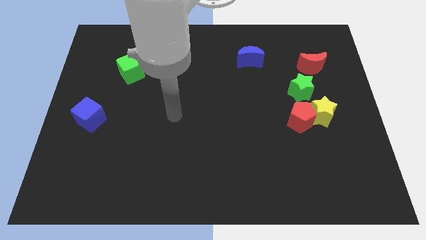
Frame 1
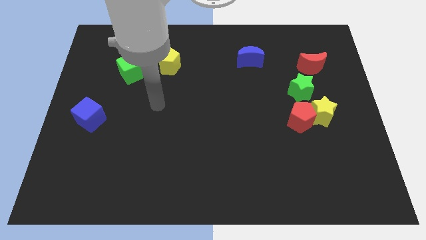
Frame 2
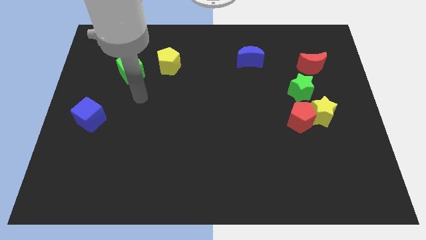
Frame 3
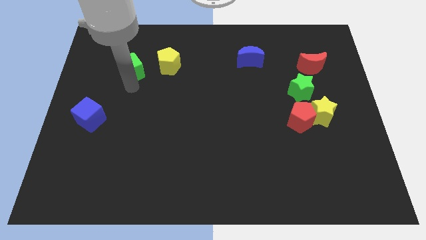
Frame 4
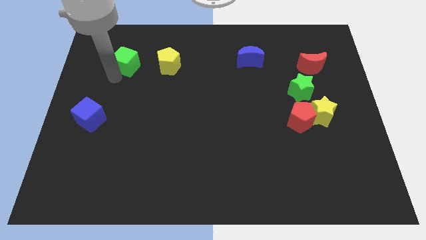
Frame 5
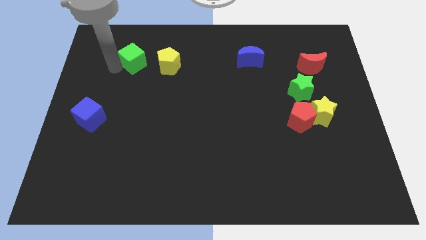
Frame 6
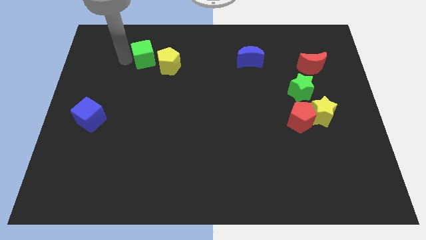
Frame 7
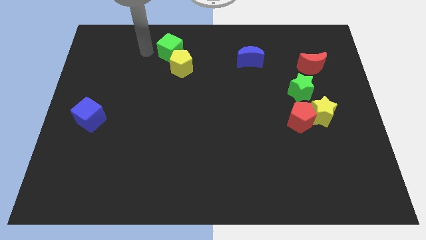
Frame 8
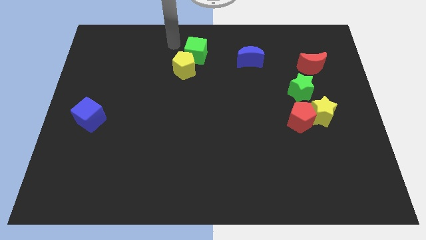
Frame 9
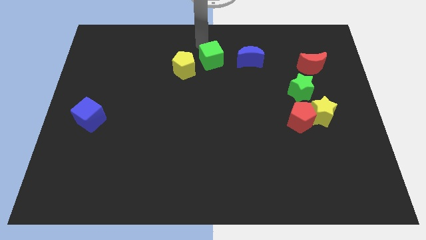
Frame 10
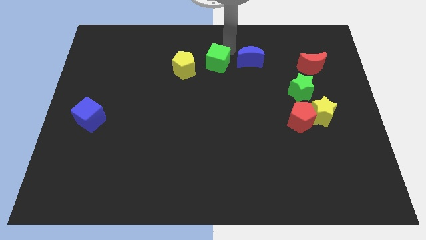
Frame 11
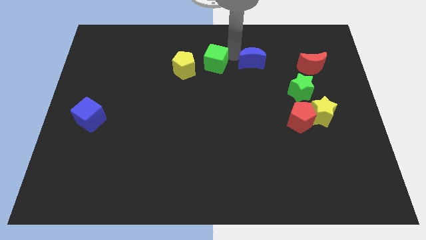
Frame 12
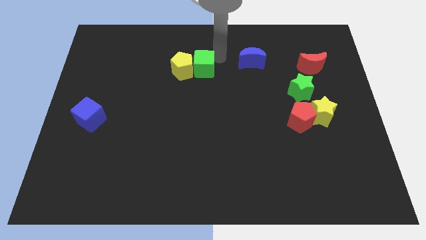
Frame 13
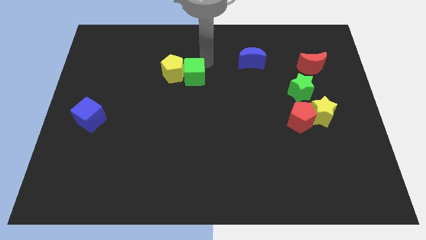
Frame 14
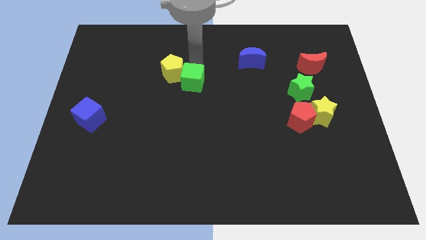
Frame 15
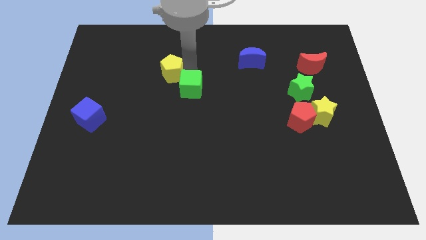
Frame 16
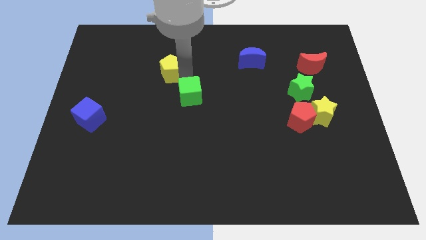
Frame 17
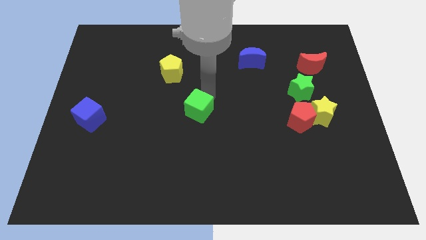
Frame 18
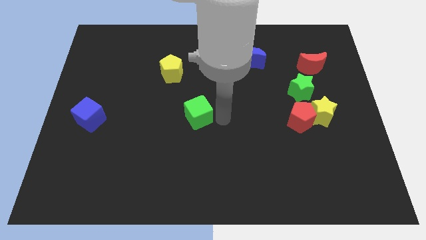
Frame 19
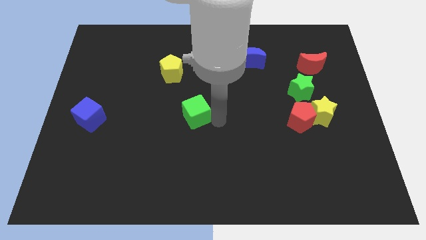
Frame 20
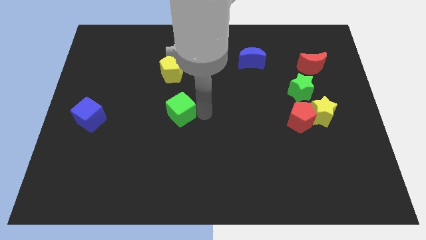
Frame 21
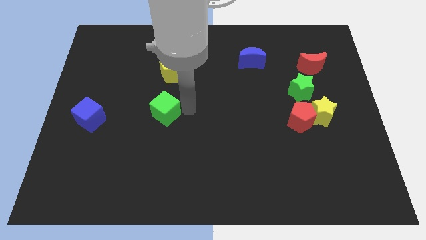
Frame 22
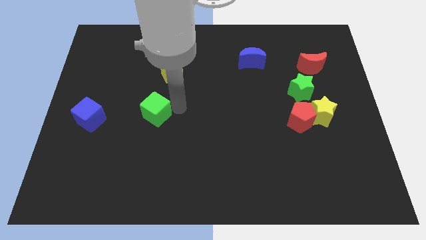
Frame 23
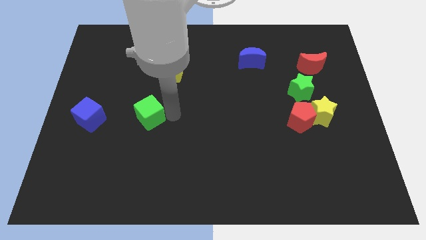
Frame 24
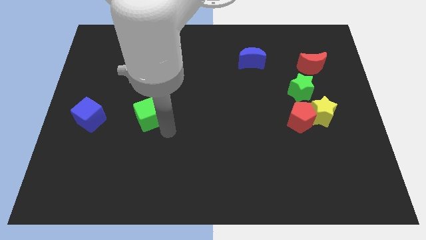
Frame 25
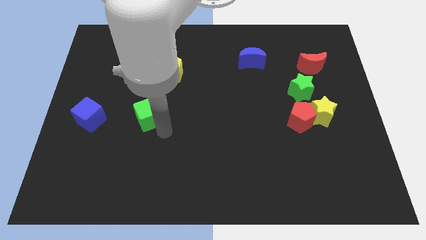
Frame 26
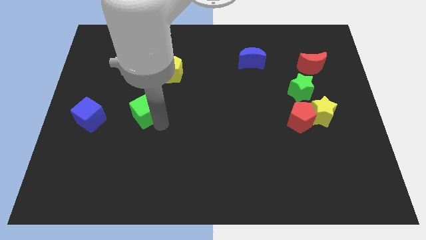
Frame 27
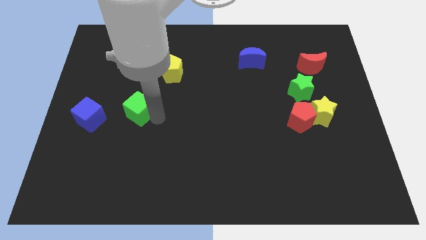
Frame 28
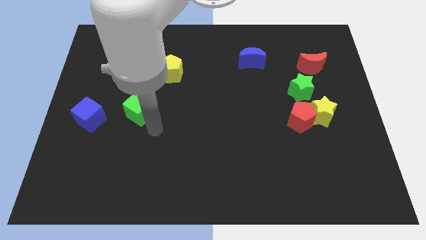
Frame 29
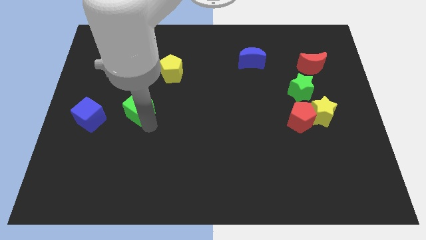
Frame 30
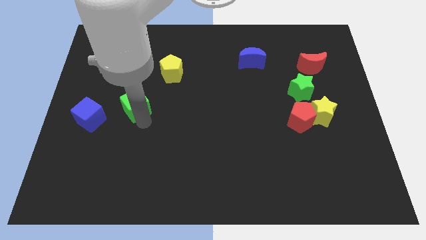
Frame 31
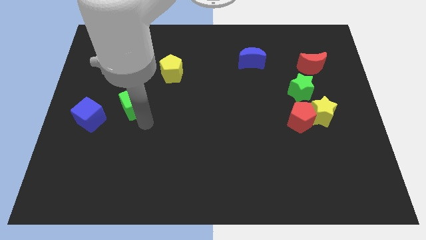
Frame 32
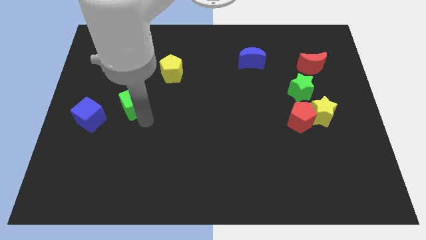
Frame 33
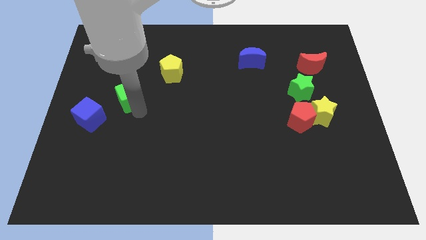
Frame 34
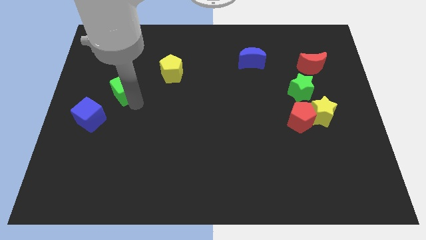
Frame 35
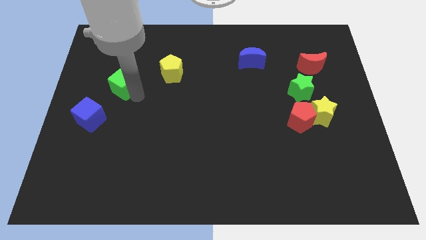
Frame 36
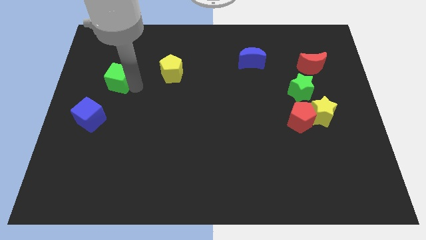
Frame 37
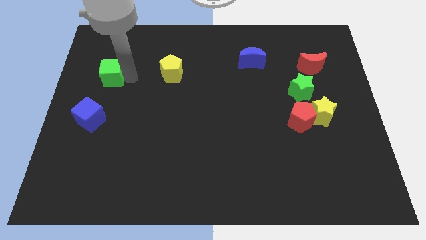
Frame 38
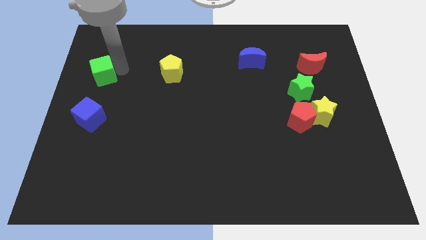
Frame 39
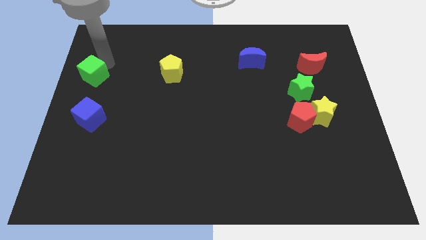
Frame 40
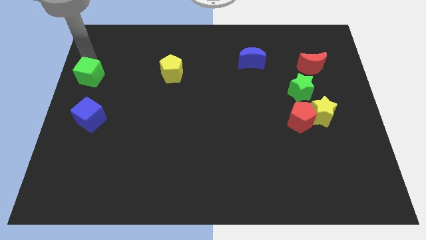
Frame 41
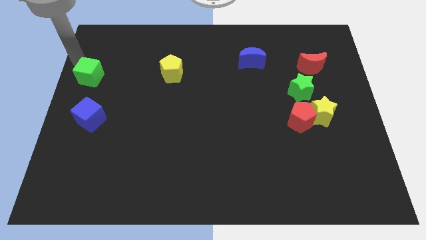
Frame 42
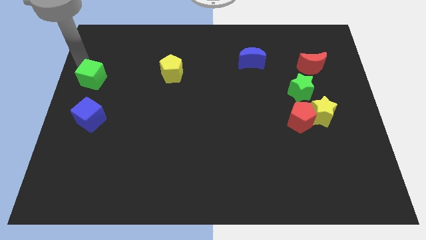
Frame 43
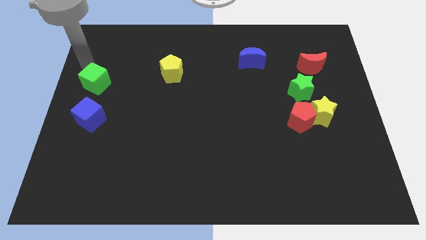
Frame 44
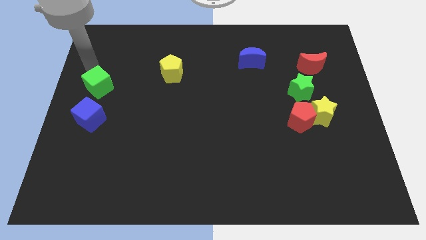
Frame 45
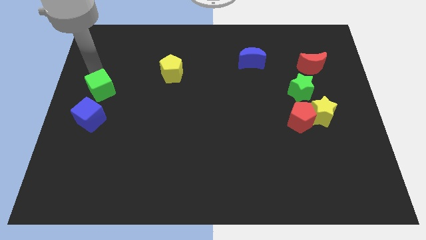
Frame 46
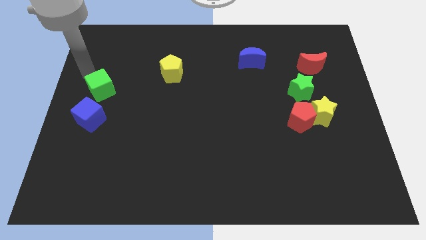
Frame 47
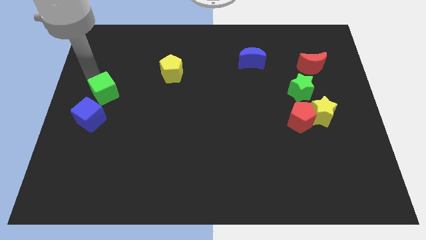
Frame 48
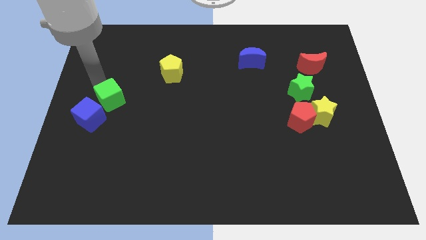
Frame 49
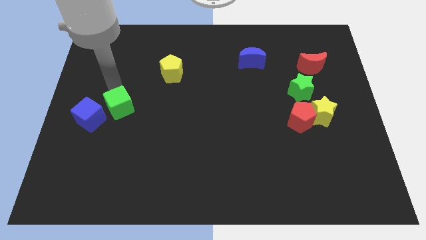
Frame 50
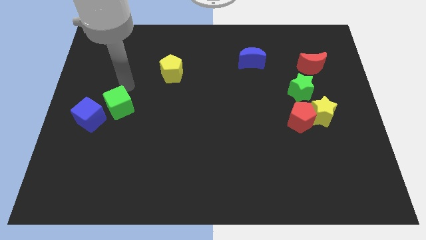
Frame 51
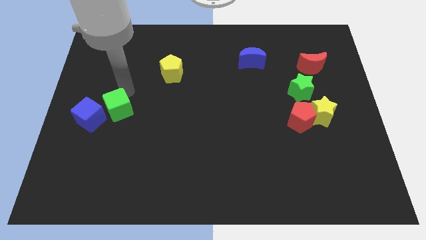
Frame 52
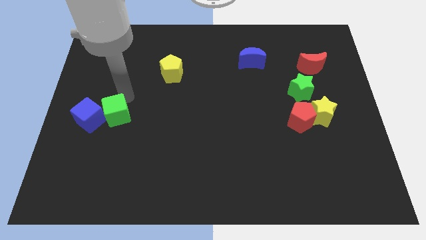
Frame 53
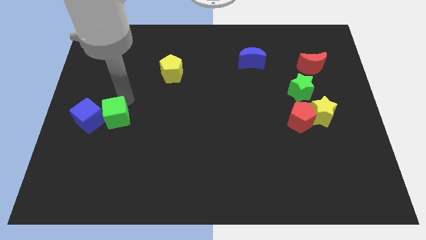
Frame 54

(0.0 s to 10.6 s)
slide the green cube to the bottom right side of the blue cube

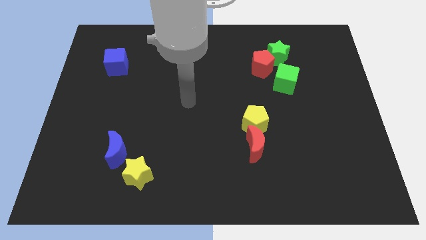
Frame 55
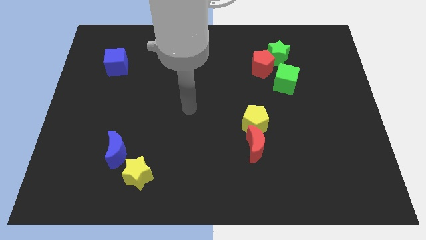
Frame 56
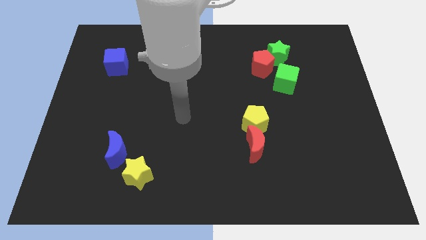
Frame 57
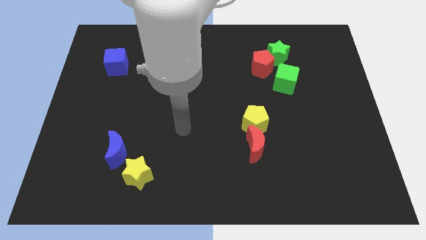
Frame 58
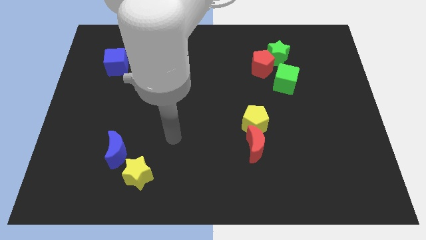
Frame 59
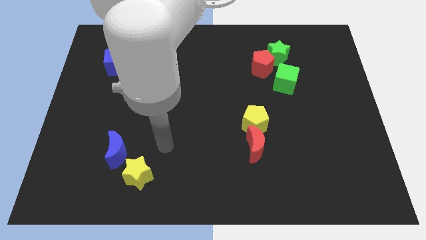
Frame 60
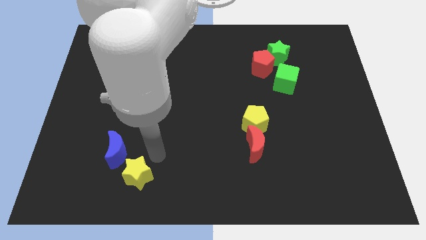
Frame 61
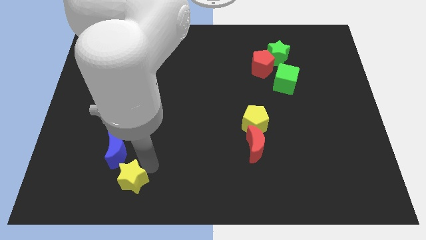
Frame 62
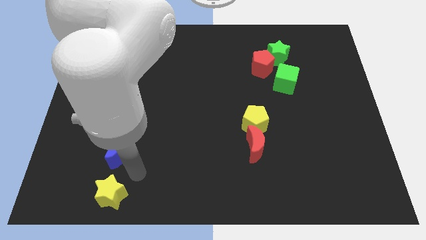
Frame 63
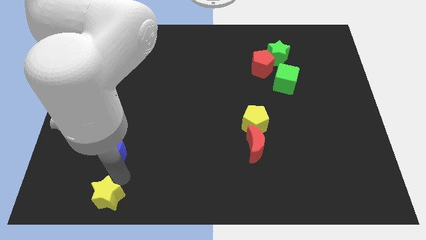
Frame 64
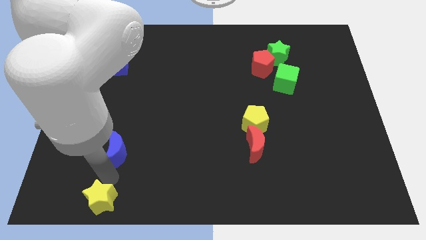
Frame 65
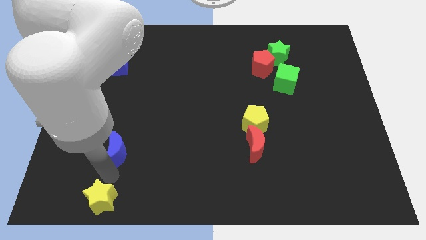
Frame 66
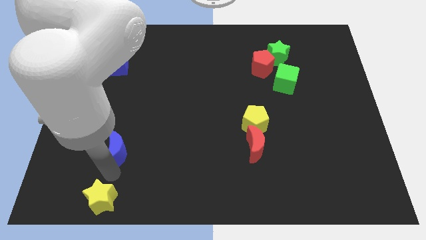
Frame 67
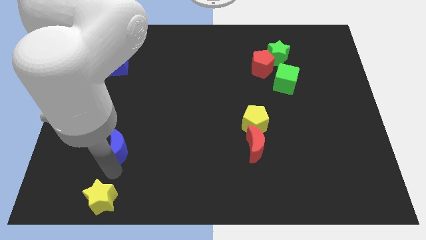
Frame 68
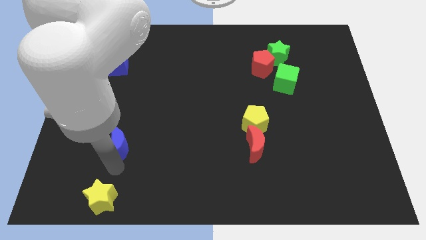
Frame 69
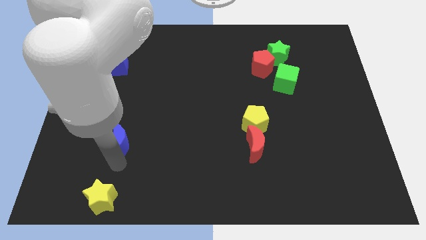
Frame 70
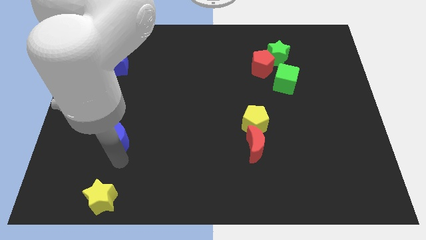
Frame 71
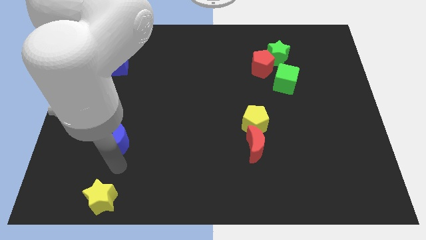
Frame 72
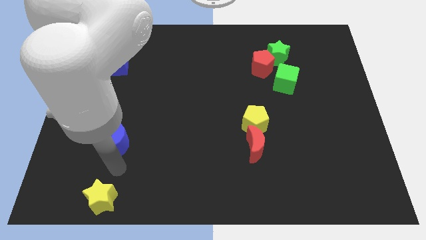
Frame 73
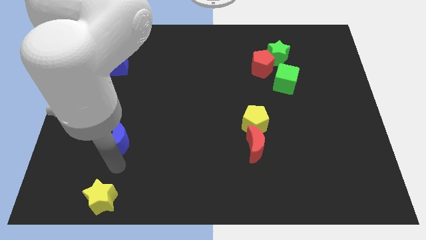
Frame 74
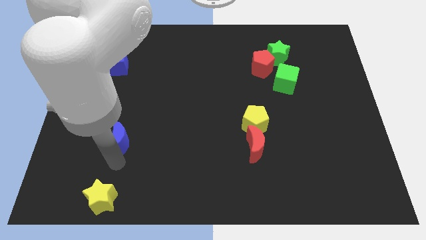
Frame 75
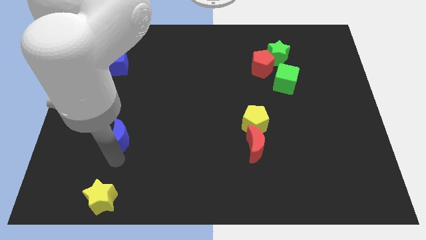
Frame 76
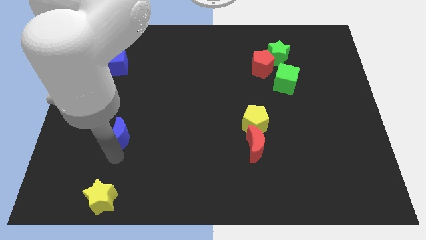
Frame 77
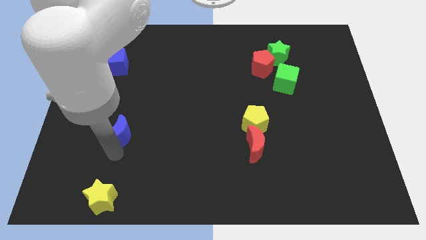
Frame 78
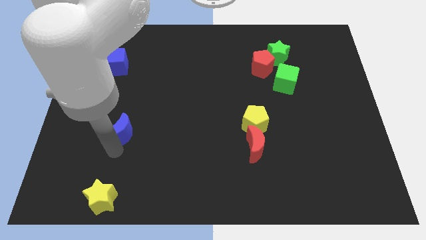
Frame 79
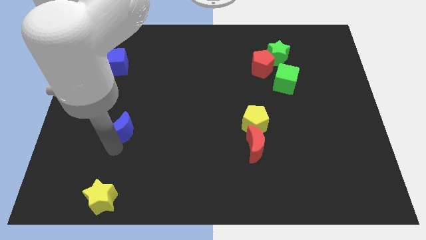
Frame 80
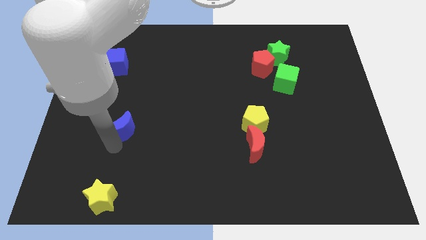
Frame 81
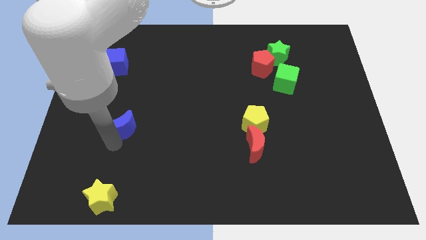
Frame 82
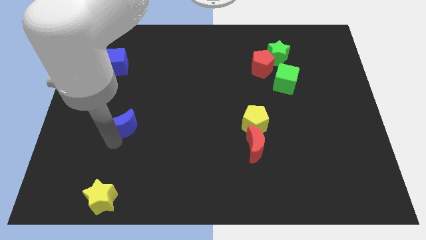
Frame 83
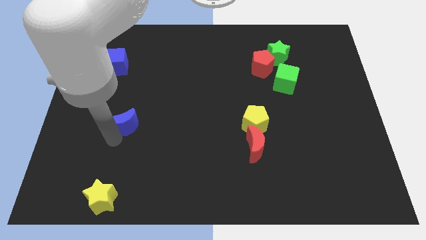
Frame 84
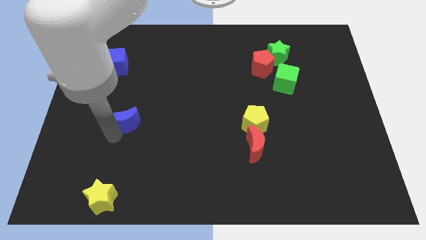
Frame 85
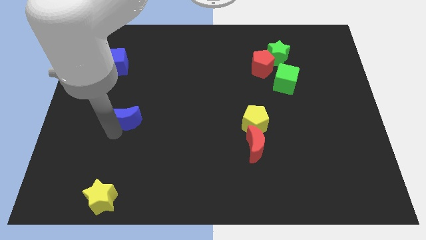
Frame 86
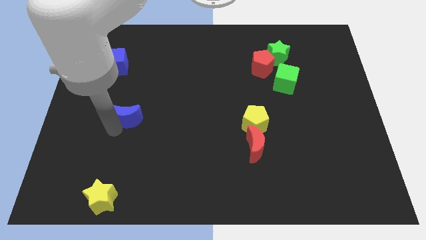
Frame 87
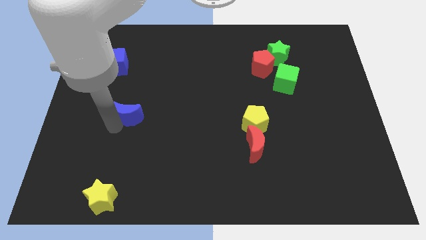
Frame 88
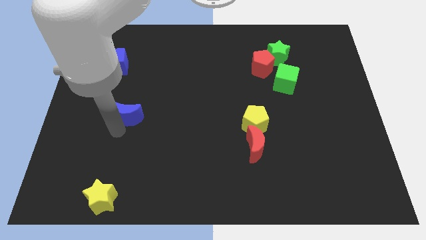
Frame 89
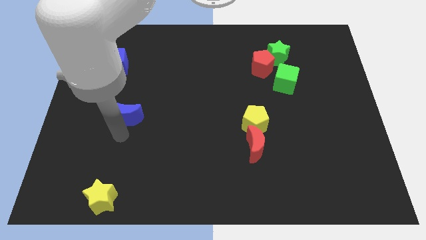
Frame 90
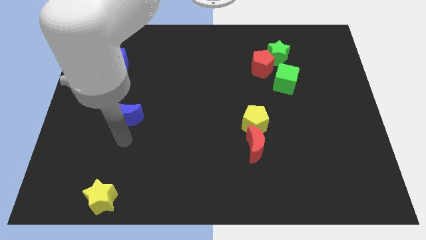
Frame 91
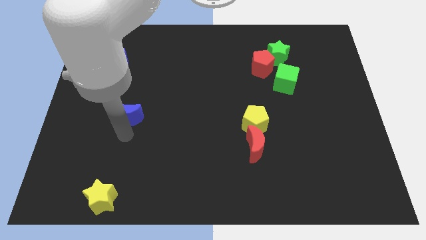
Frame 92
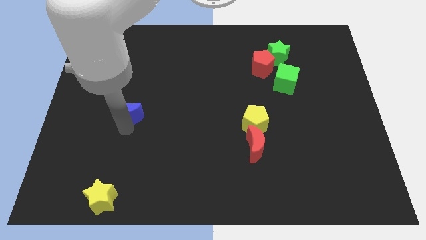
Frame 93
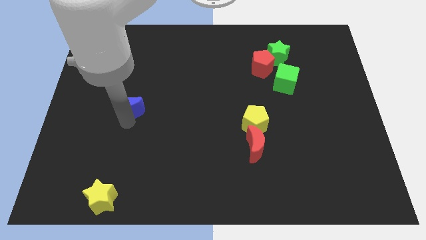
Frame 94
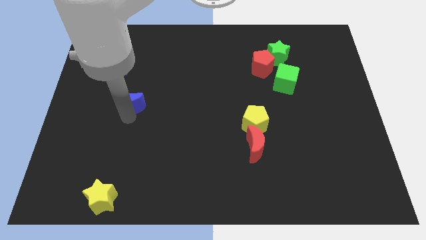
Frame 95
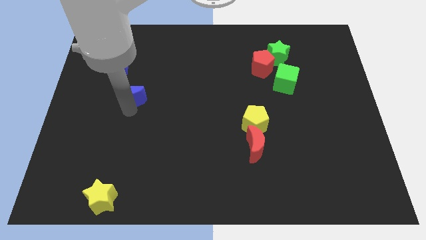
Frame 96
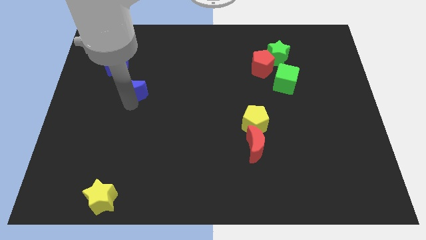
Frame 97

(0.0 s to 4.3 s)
put the blue moon to the bottom right of the blue cube
